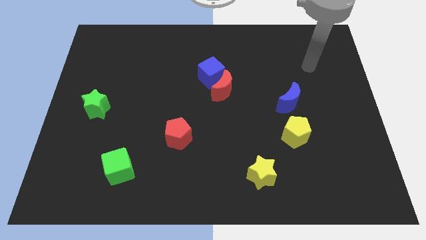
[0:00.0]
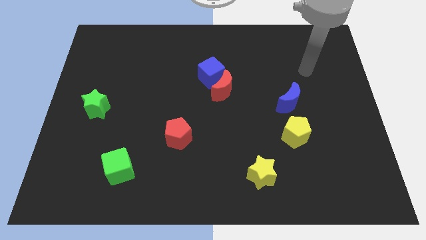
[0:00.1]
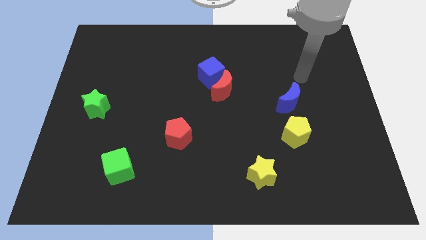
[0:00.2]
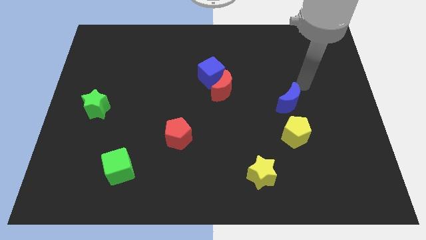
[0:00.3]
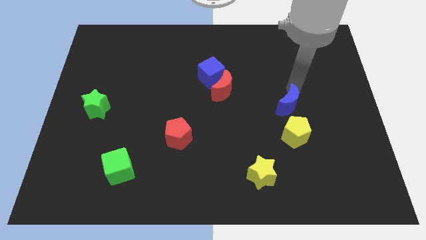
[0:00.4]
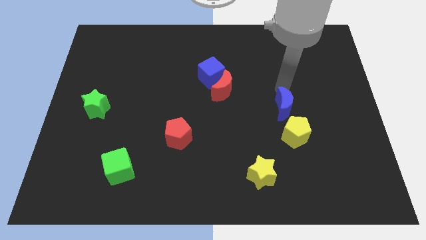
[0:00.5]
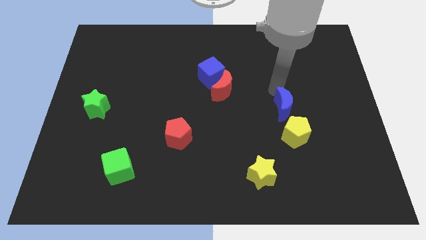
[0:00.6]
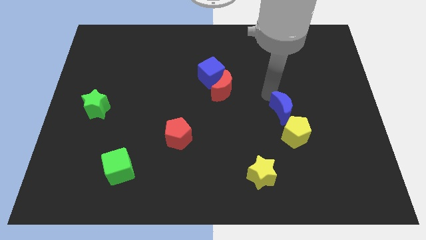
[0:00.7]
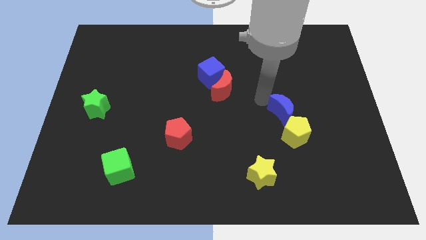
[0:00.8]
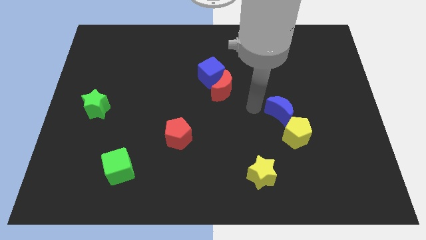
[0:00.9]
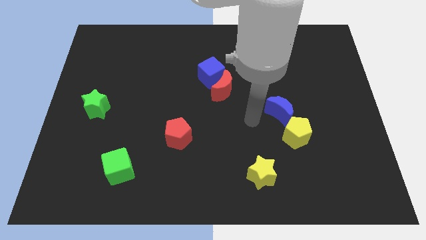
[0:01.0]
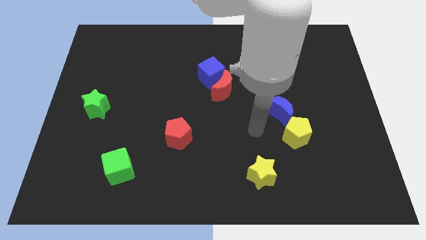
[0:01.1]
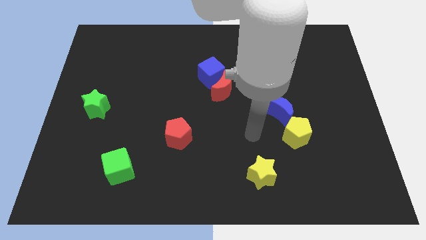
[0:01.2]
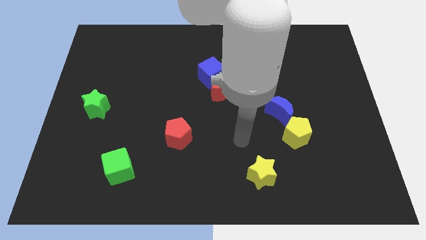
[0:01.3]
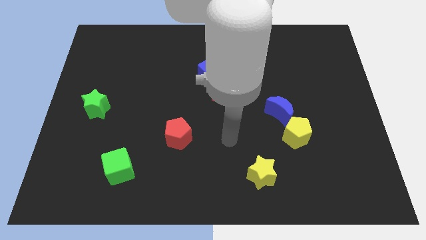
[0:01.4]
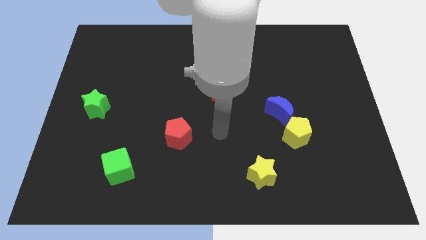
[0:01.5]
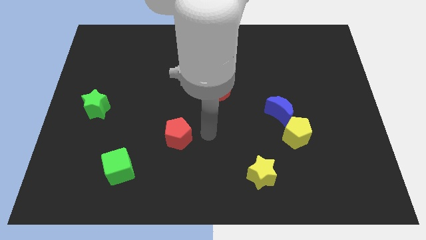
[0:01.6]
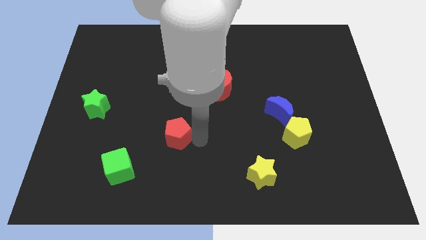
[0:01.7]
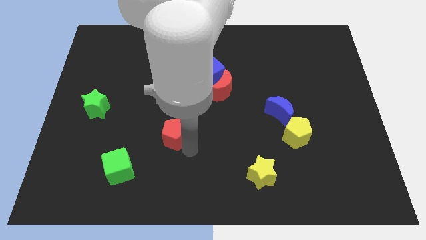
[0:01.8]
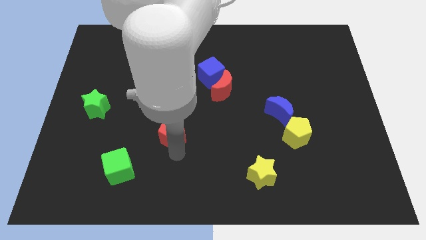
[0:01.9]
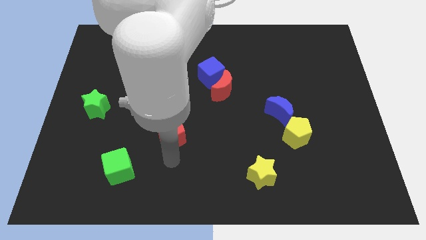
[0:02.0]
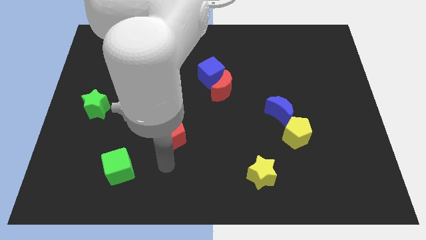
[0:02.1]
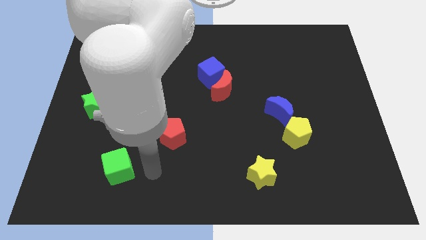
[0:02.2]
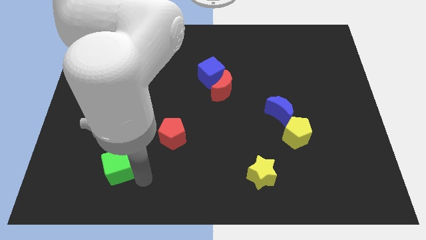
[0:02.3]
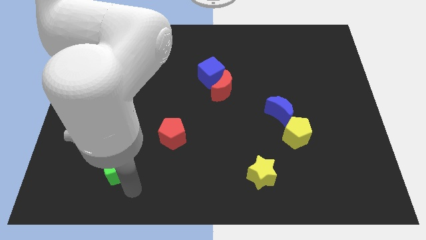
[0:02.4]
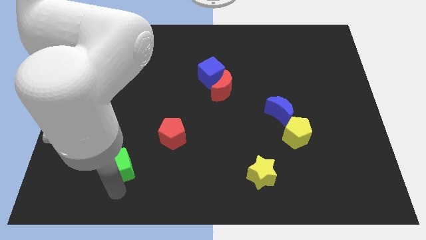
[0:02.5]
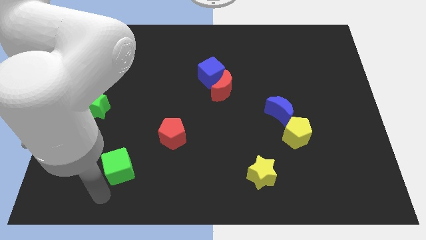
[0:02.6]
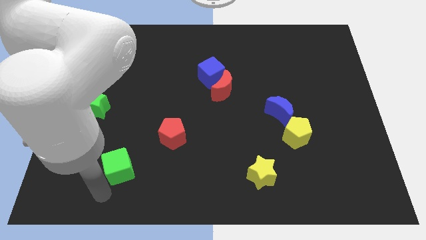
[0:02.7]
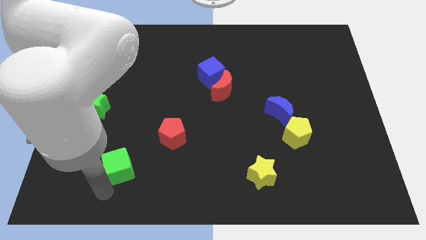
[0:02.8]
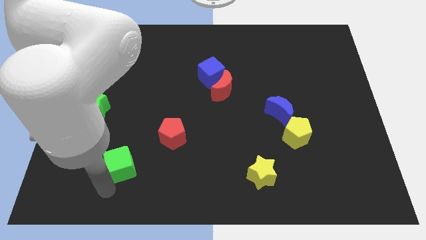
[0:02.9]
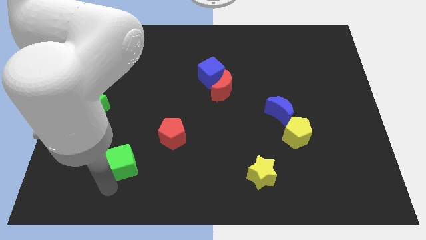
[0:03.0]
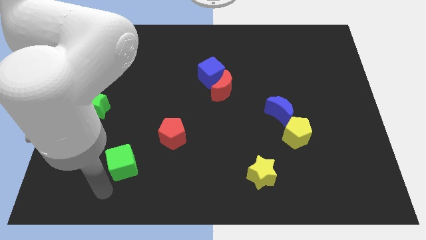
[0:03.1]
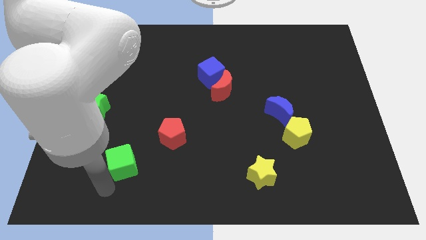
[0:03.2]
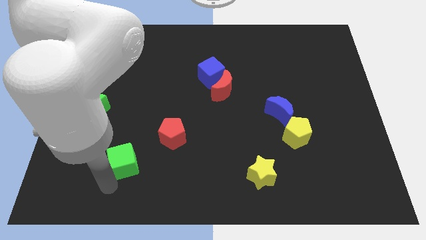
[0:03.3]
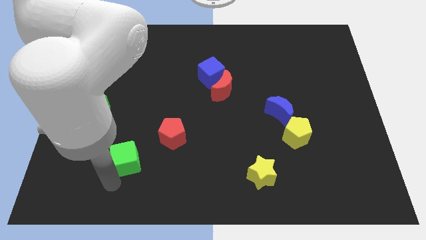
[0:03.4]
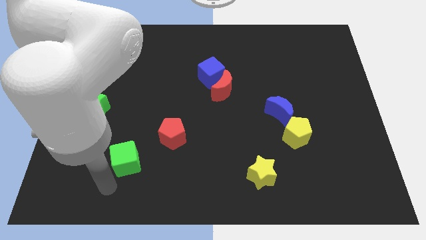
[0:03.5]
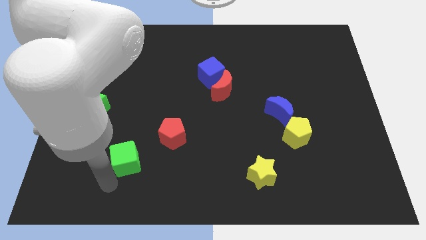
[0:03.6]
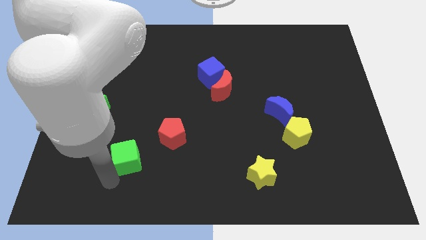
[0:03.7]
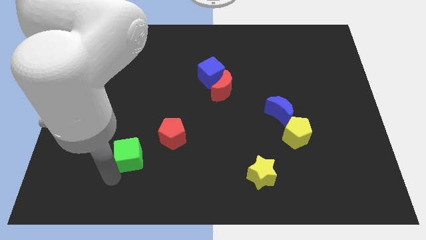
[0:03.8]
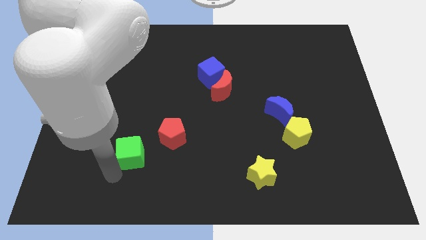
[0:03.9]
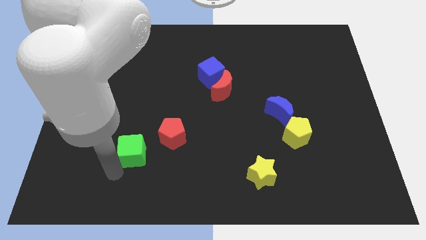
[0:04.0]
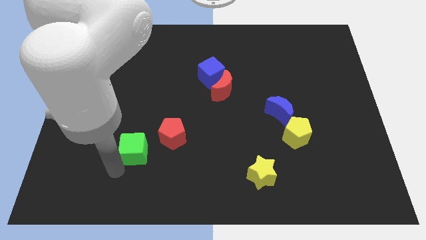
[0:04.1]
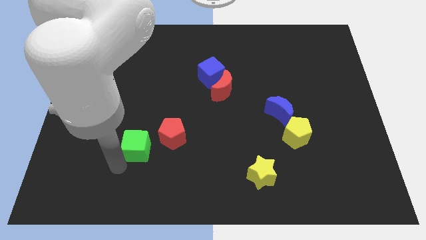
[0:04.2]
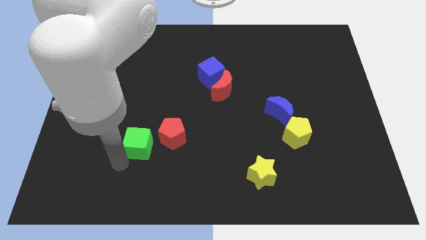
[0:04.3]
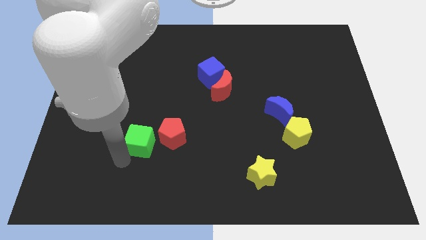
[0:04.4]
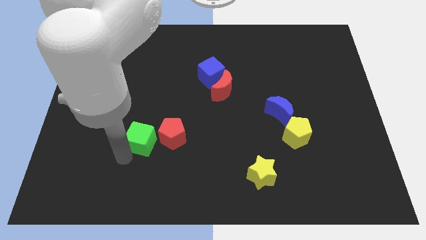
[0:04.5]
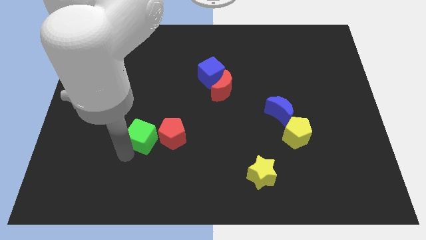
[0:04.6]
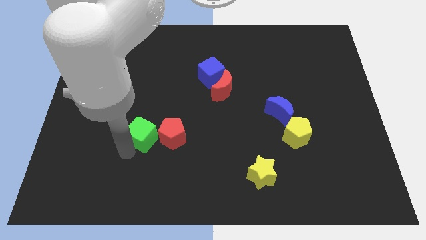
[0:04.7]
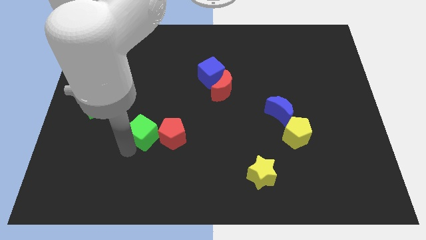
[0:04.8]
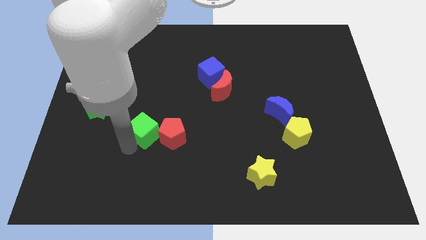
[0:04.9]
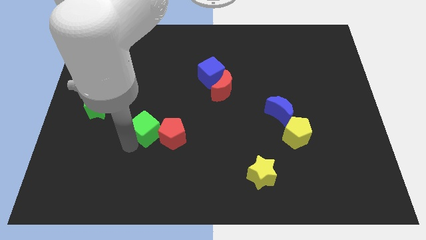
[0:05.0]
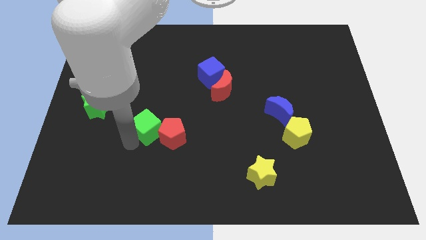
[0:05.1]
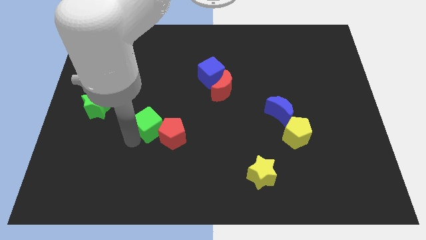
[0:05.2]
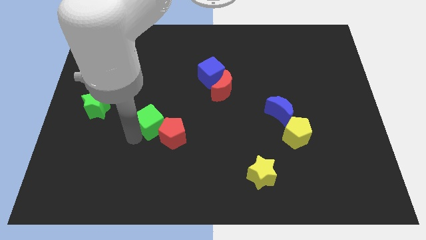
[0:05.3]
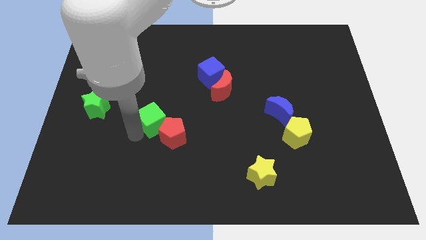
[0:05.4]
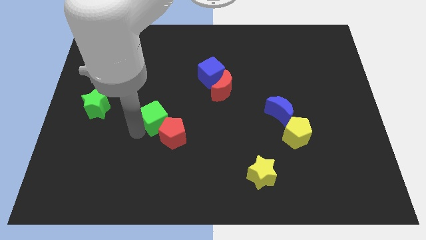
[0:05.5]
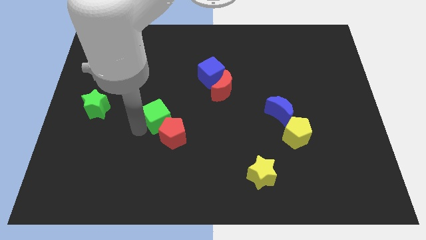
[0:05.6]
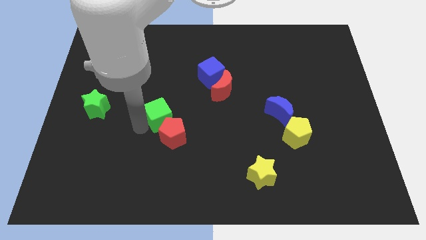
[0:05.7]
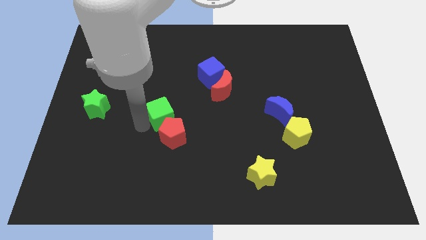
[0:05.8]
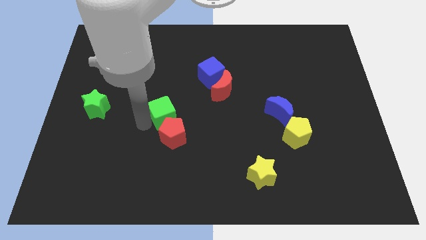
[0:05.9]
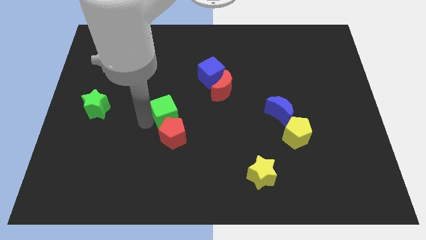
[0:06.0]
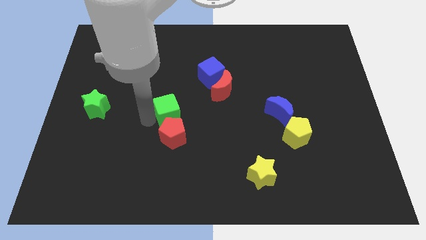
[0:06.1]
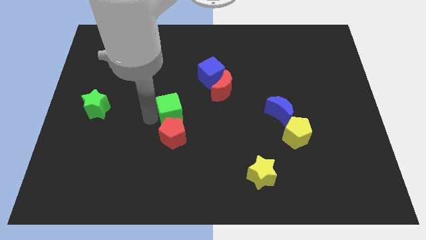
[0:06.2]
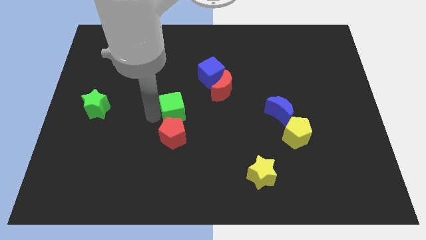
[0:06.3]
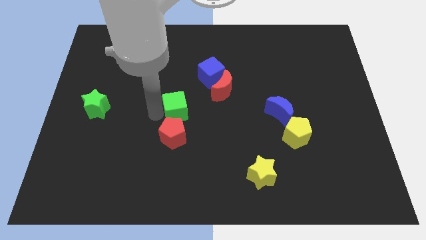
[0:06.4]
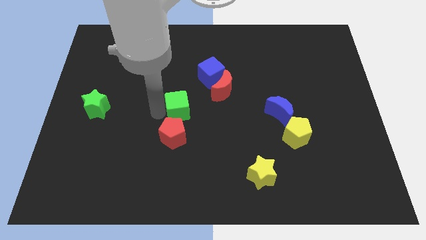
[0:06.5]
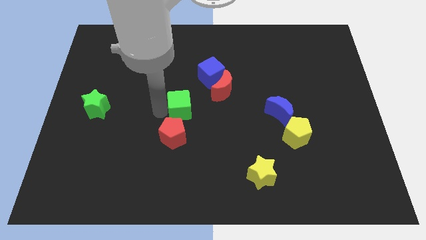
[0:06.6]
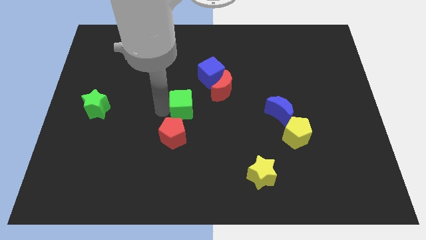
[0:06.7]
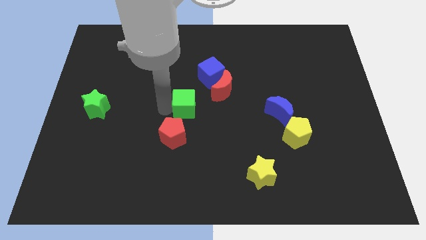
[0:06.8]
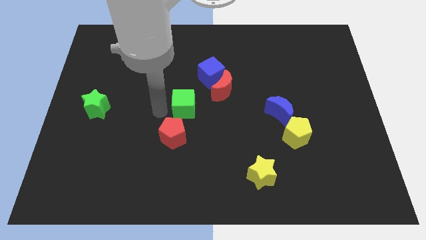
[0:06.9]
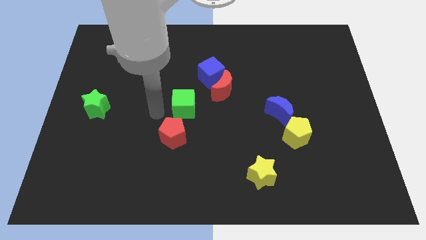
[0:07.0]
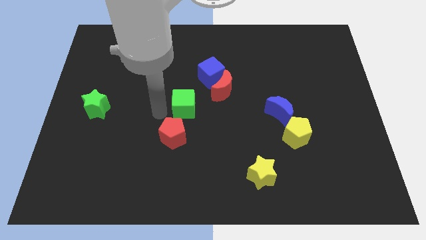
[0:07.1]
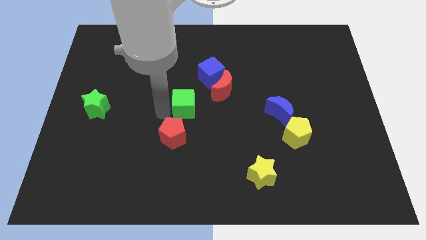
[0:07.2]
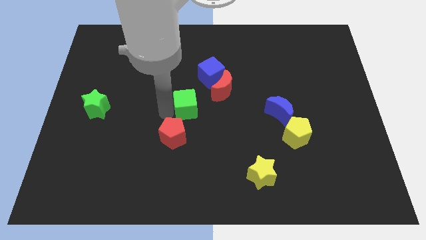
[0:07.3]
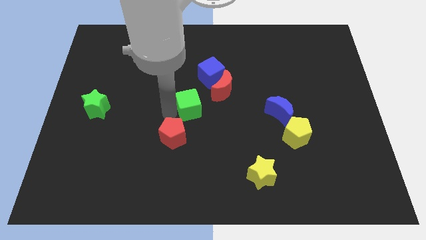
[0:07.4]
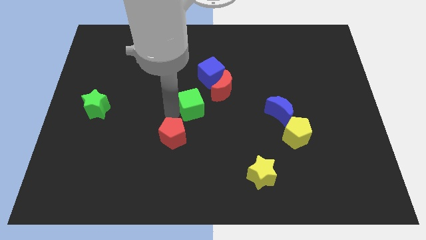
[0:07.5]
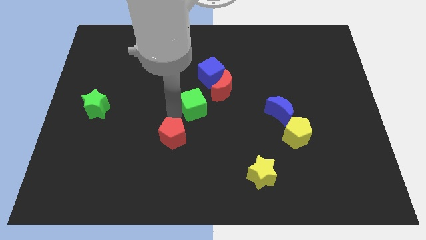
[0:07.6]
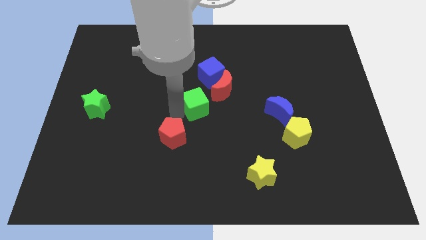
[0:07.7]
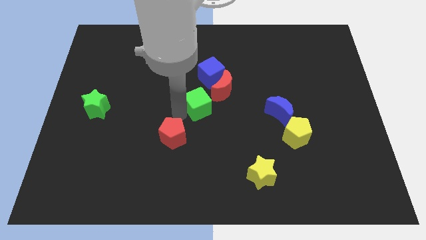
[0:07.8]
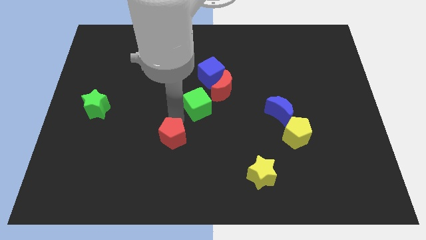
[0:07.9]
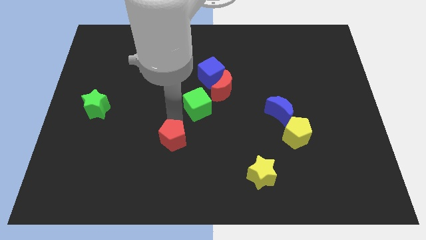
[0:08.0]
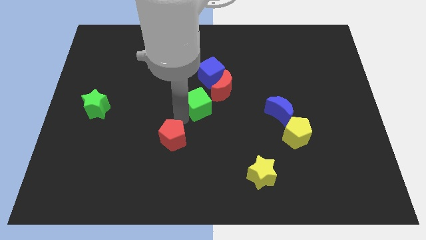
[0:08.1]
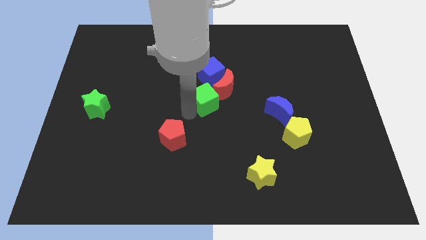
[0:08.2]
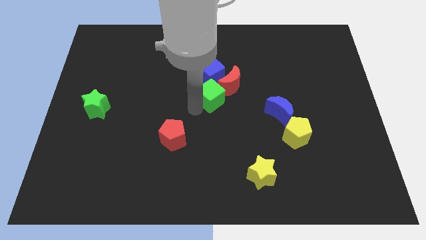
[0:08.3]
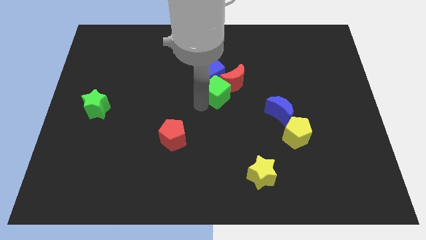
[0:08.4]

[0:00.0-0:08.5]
move the green cube towards the red moon
